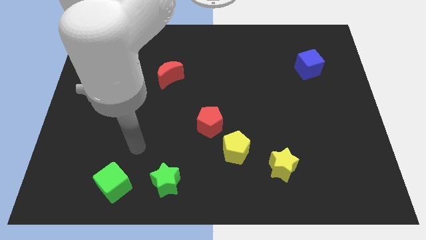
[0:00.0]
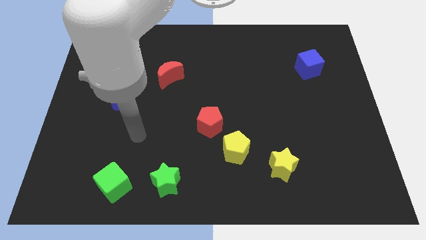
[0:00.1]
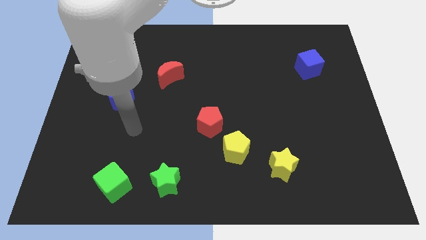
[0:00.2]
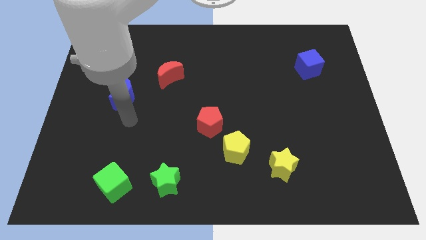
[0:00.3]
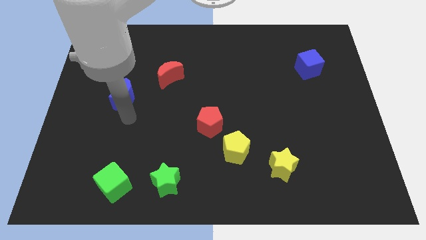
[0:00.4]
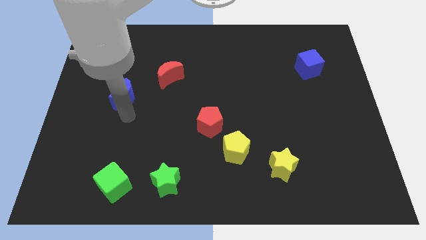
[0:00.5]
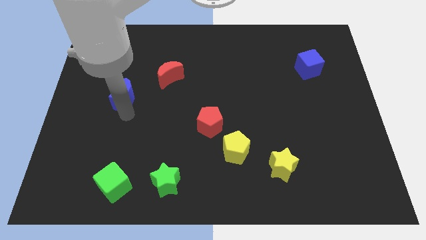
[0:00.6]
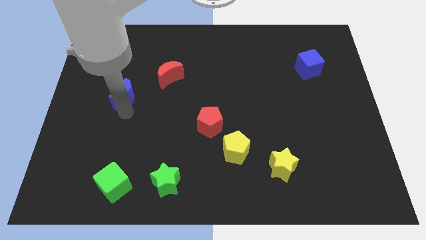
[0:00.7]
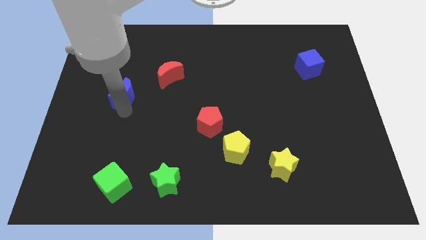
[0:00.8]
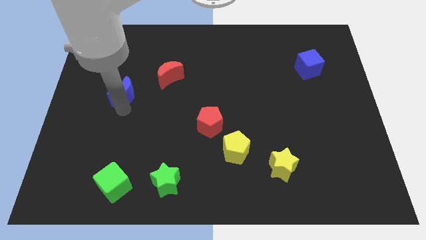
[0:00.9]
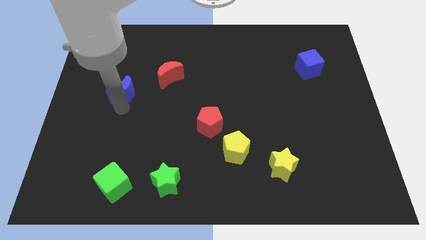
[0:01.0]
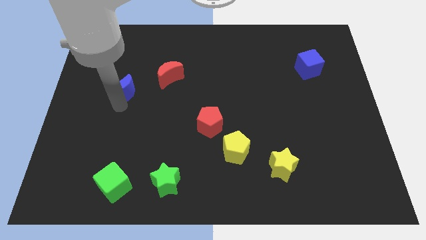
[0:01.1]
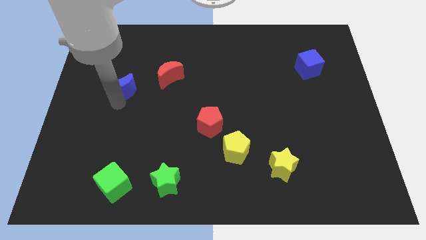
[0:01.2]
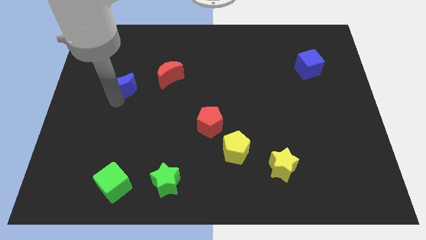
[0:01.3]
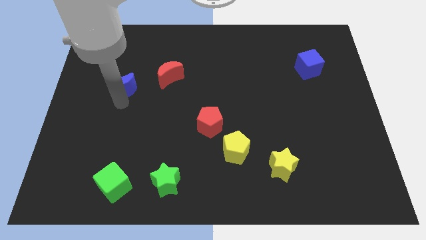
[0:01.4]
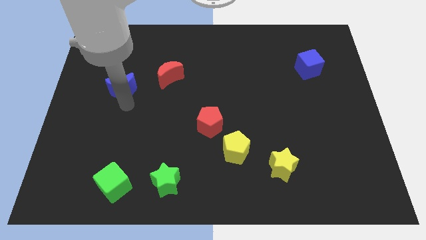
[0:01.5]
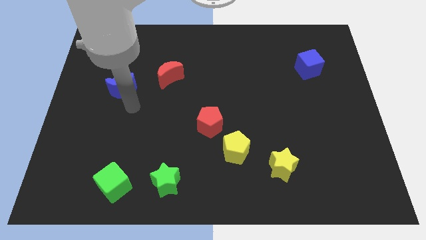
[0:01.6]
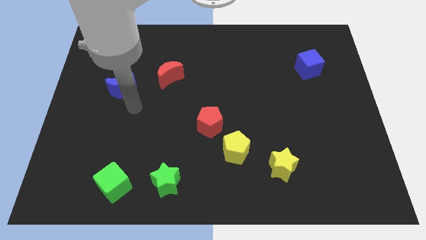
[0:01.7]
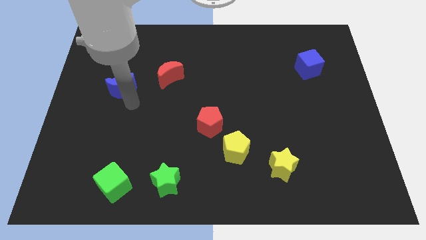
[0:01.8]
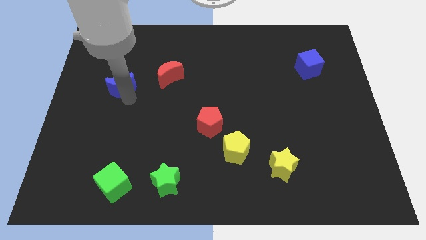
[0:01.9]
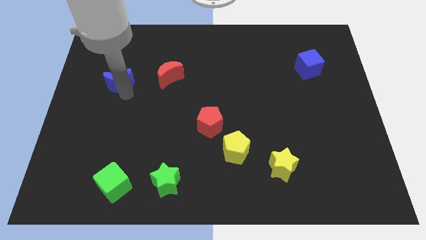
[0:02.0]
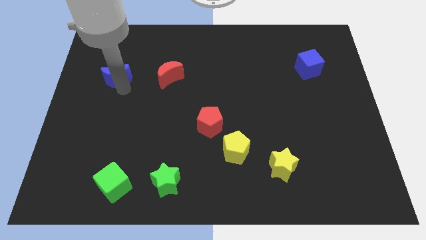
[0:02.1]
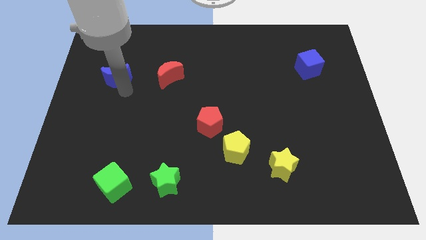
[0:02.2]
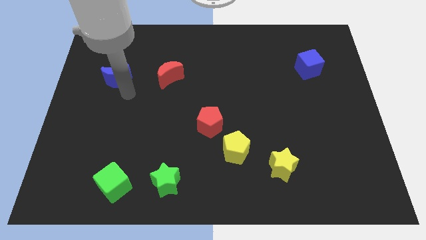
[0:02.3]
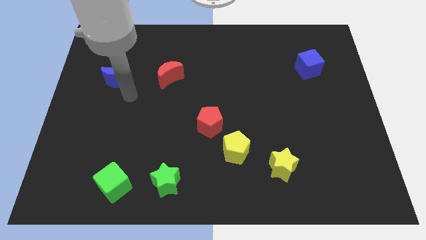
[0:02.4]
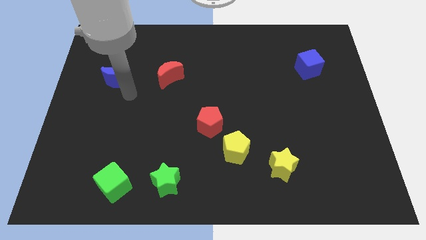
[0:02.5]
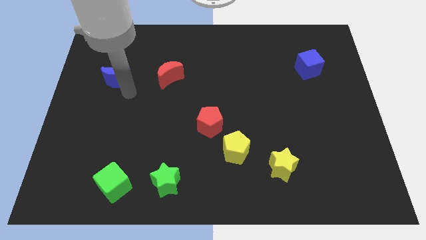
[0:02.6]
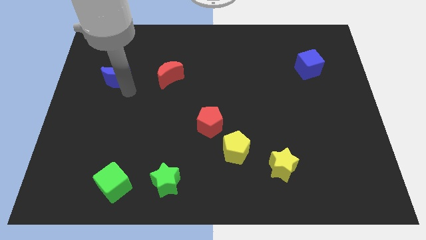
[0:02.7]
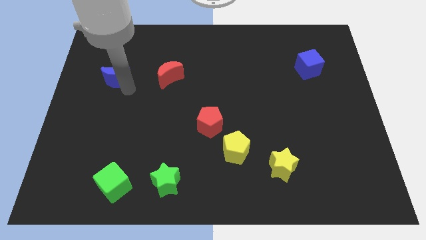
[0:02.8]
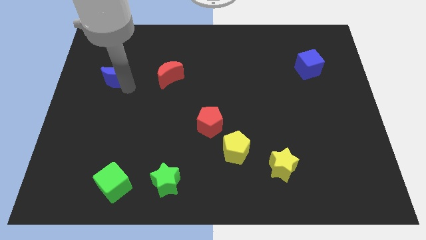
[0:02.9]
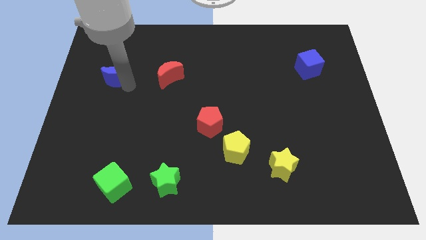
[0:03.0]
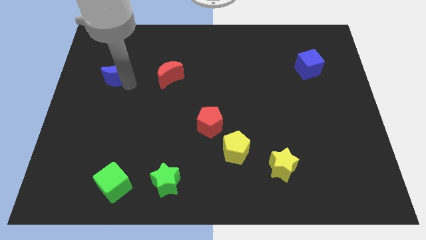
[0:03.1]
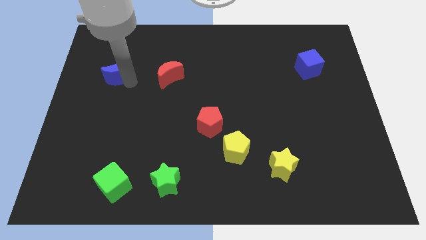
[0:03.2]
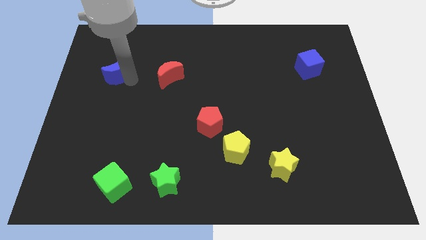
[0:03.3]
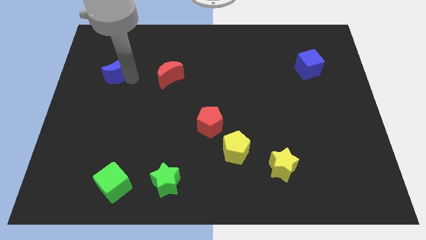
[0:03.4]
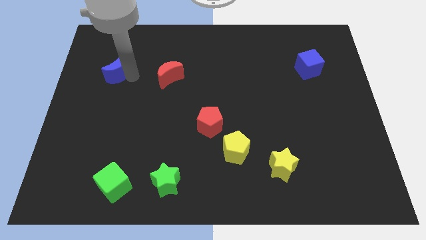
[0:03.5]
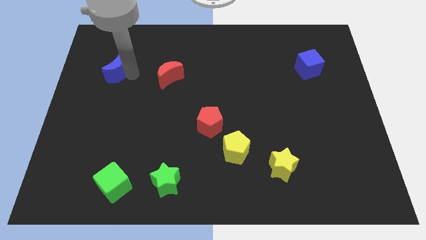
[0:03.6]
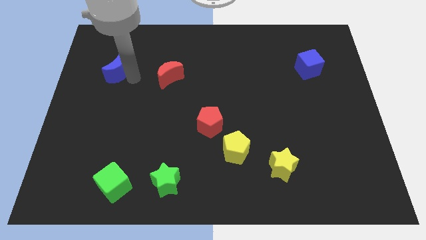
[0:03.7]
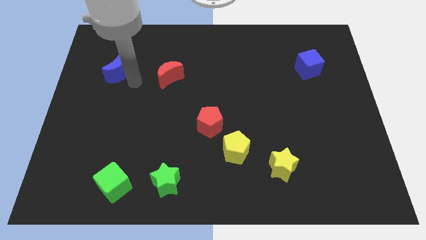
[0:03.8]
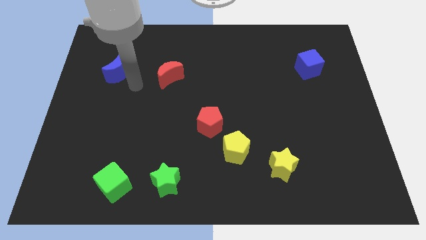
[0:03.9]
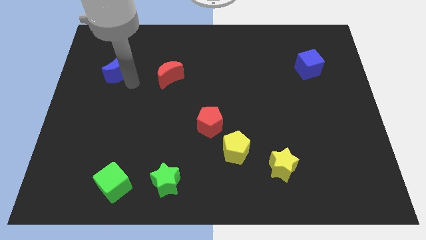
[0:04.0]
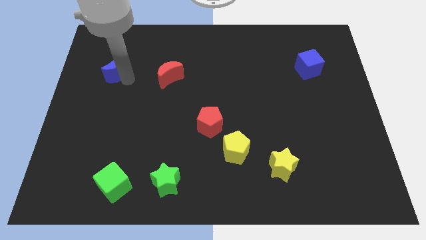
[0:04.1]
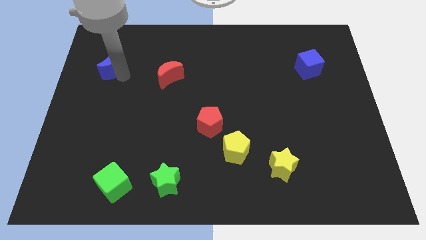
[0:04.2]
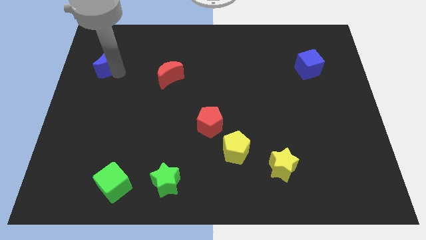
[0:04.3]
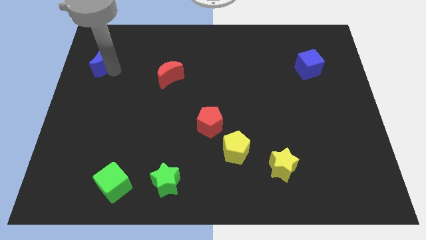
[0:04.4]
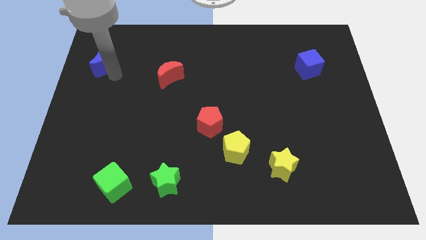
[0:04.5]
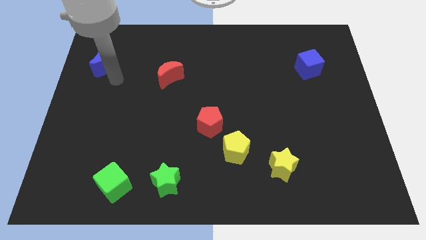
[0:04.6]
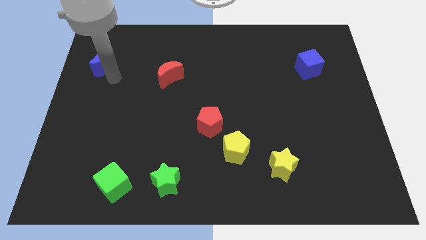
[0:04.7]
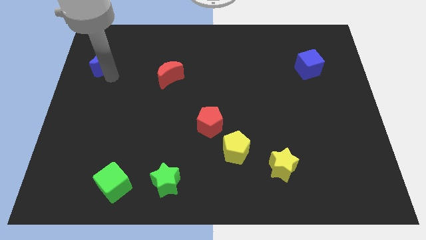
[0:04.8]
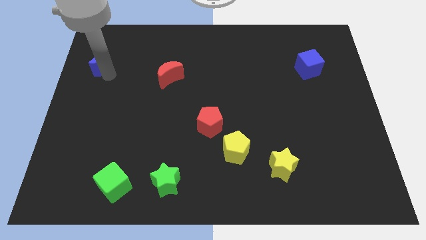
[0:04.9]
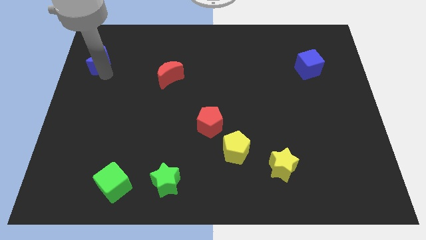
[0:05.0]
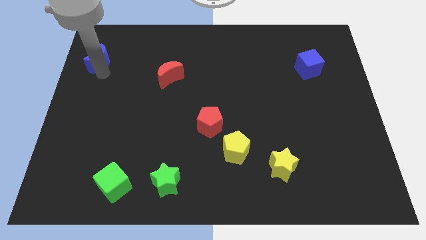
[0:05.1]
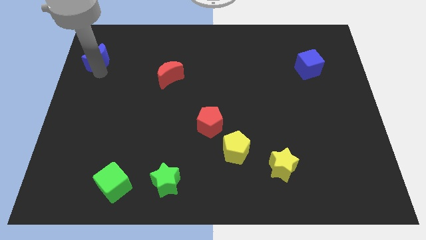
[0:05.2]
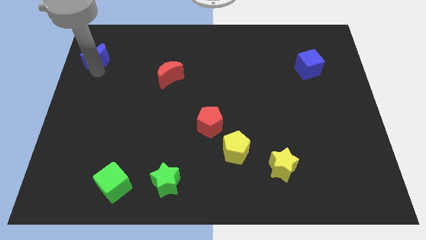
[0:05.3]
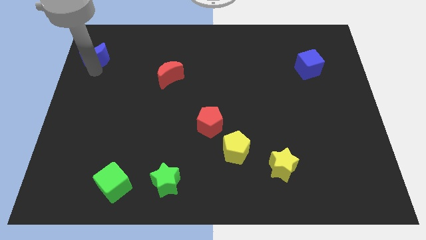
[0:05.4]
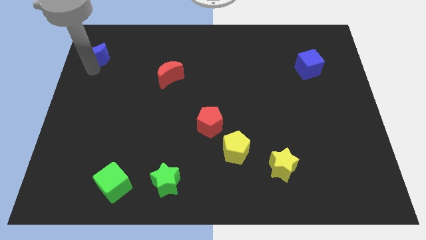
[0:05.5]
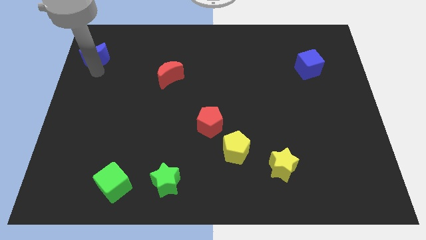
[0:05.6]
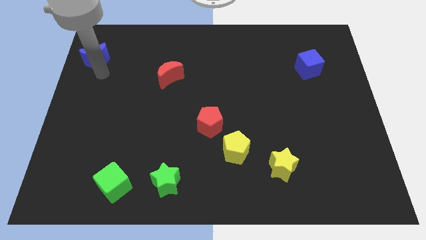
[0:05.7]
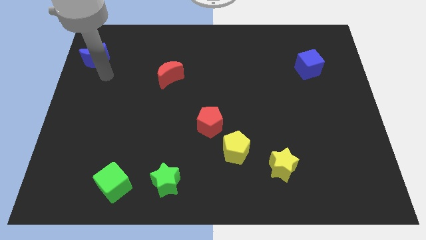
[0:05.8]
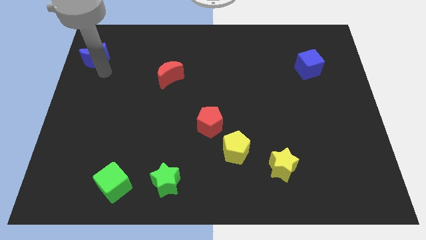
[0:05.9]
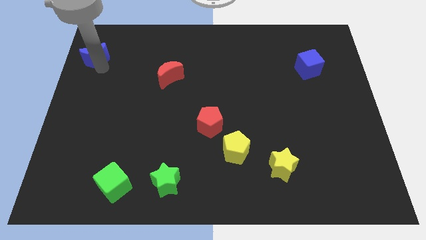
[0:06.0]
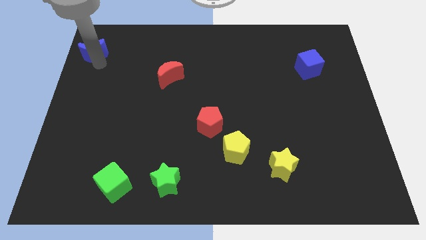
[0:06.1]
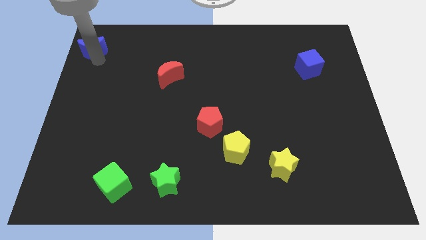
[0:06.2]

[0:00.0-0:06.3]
move the blue moon to the upper left corner

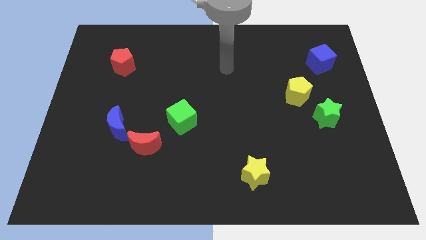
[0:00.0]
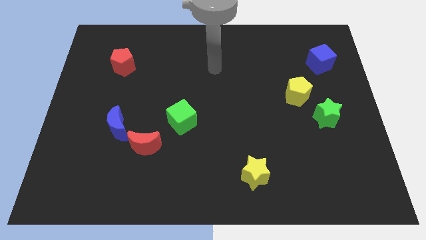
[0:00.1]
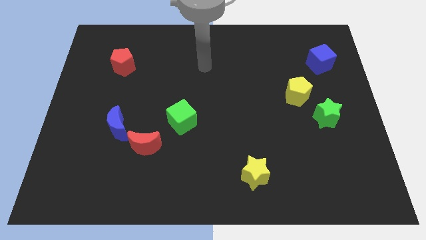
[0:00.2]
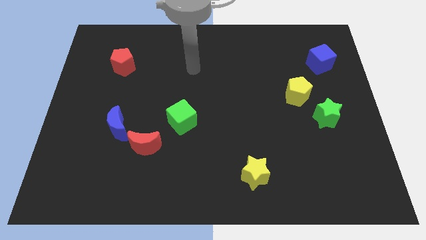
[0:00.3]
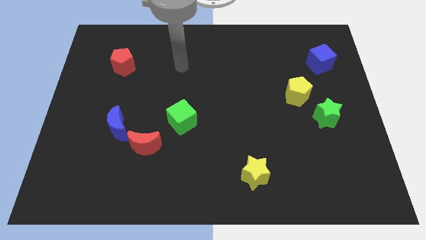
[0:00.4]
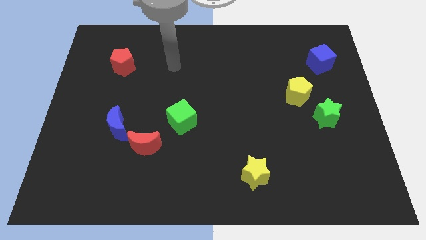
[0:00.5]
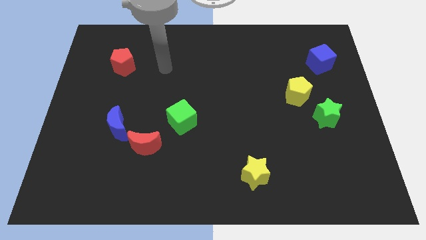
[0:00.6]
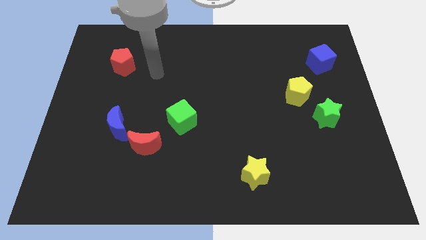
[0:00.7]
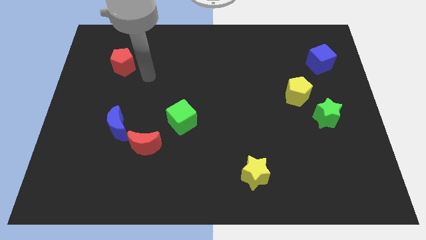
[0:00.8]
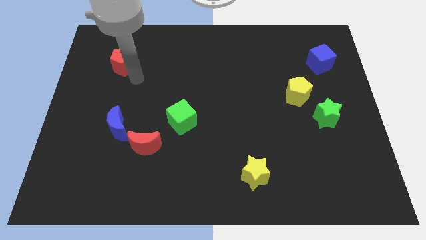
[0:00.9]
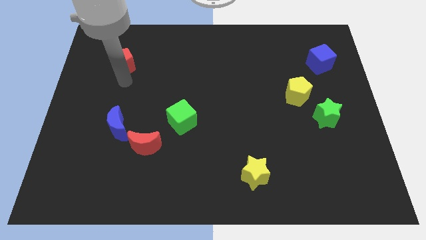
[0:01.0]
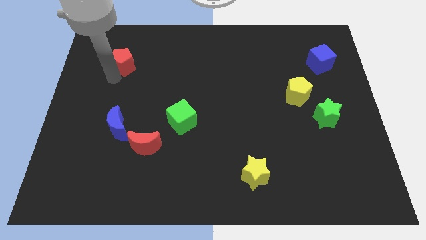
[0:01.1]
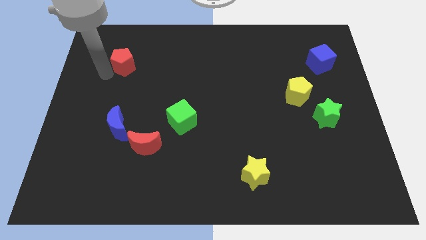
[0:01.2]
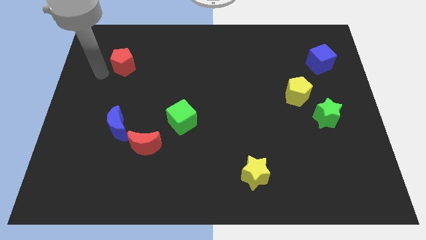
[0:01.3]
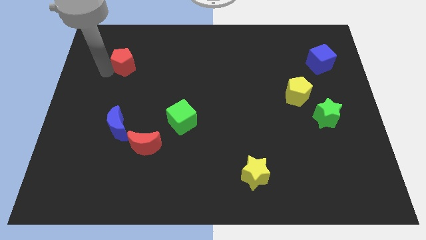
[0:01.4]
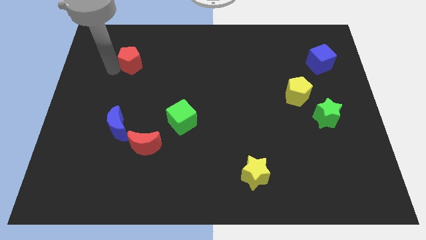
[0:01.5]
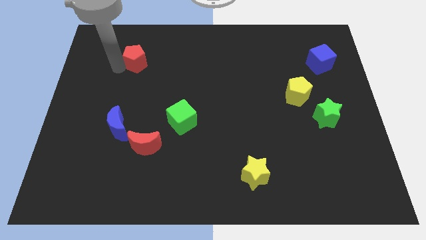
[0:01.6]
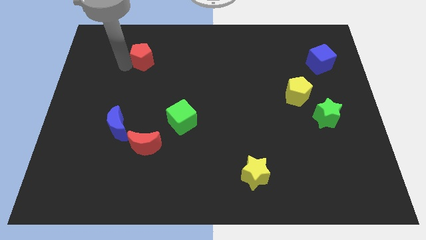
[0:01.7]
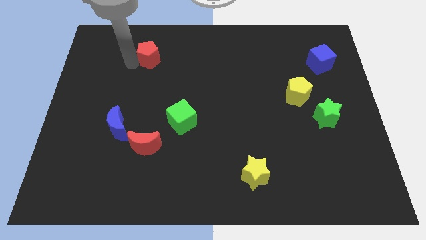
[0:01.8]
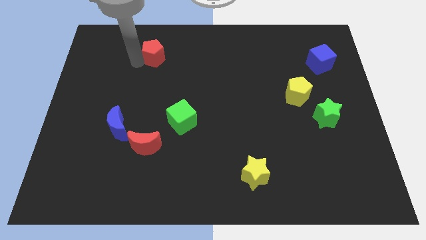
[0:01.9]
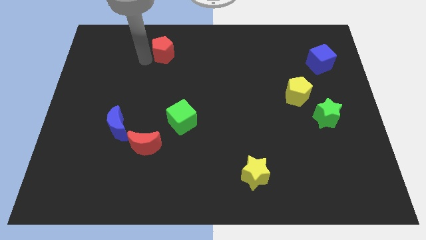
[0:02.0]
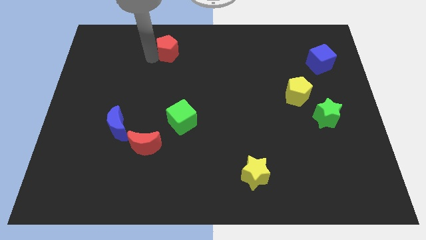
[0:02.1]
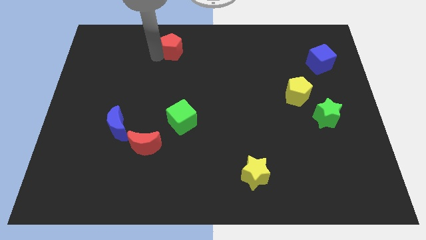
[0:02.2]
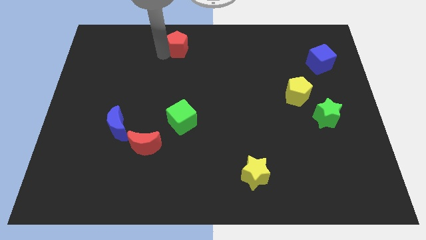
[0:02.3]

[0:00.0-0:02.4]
push the red pentagon to the top
